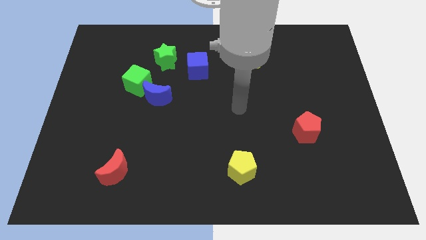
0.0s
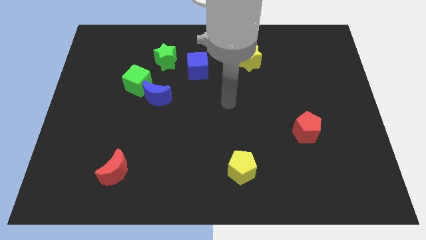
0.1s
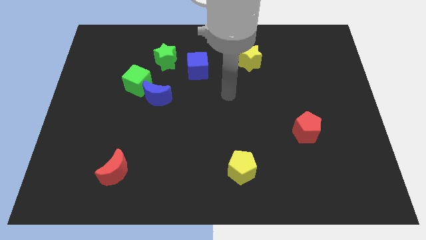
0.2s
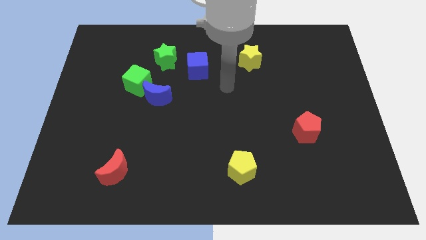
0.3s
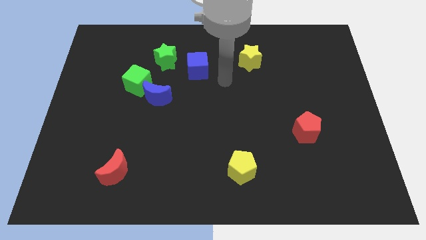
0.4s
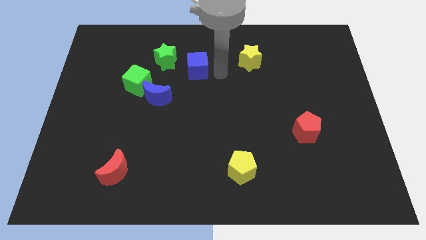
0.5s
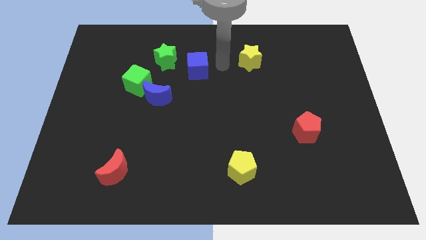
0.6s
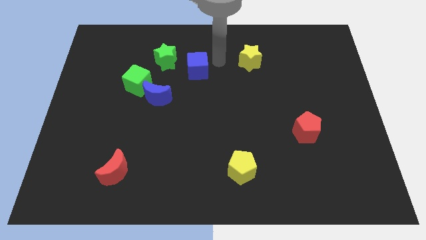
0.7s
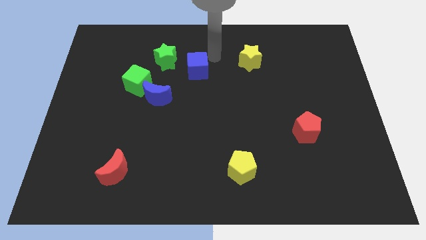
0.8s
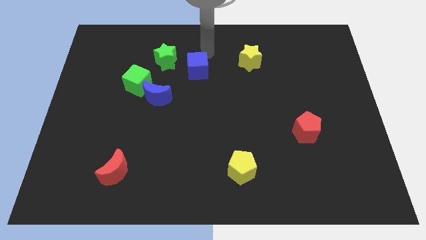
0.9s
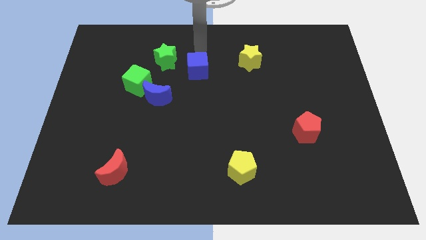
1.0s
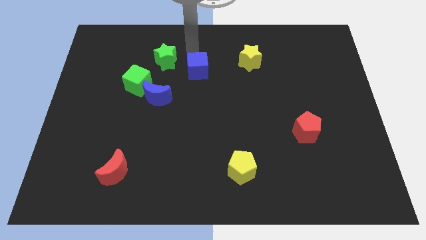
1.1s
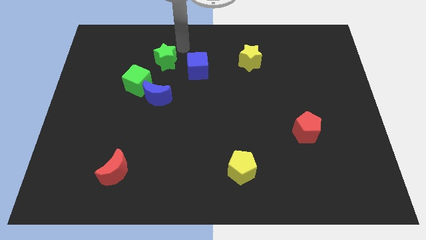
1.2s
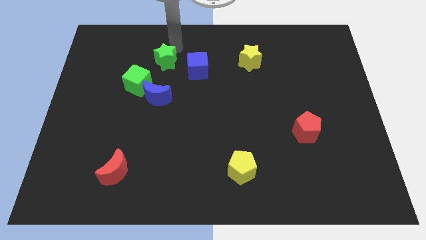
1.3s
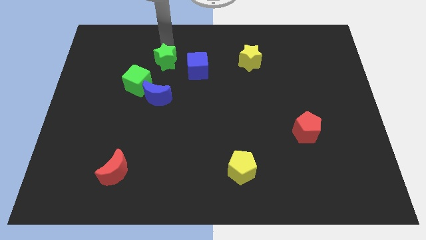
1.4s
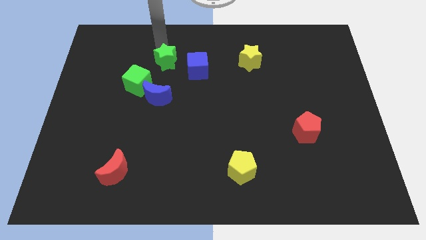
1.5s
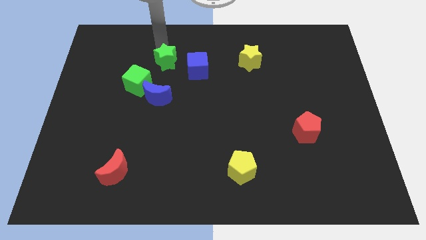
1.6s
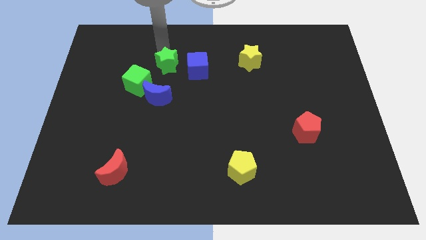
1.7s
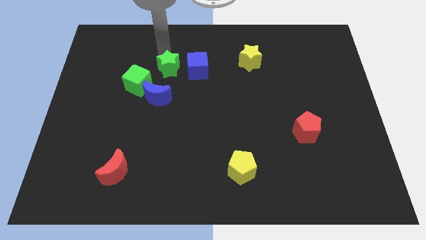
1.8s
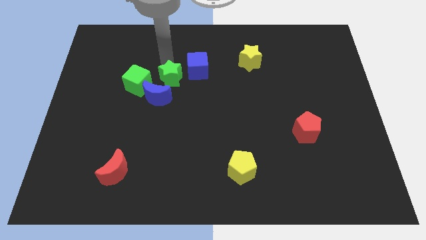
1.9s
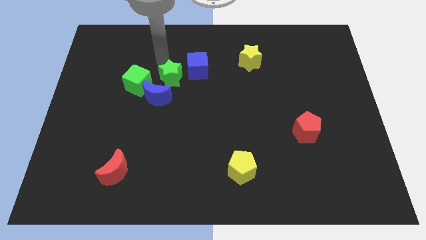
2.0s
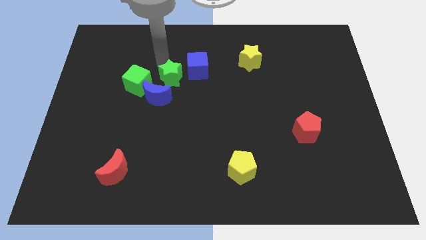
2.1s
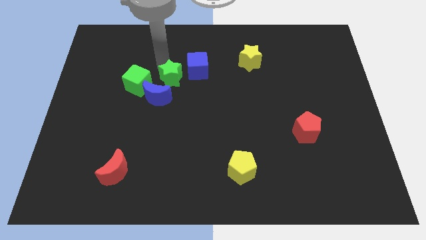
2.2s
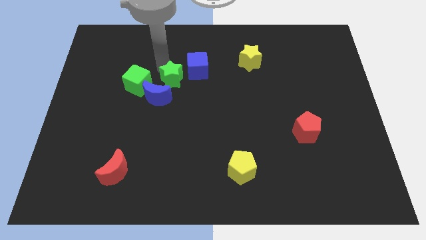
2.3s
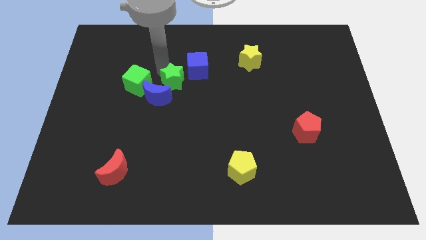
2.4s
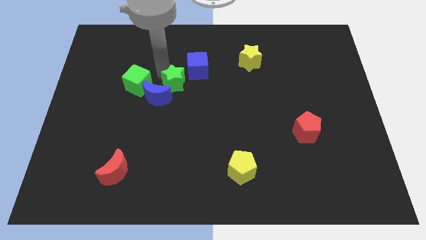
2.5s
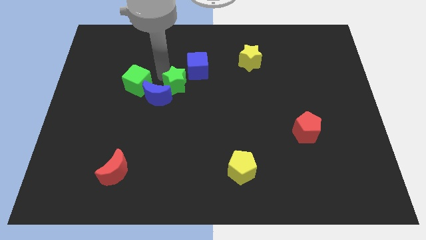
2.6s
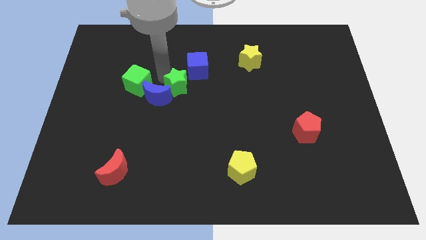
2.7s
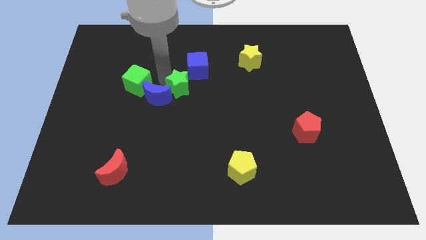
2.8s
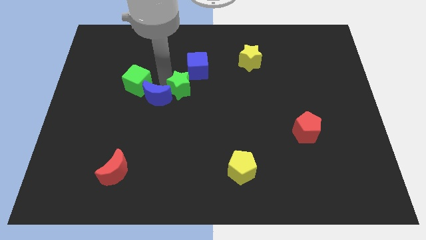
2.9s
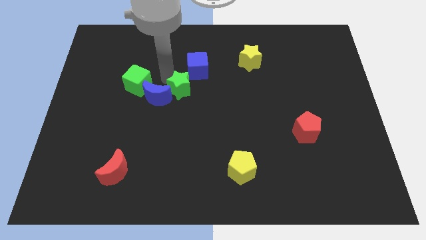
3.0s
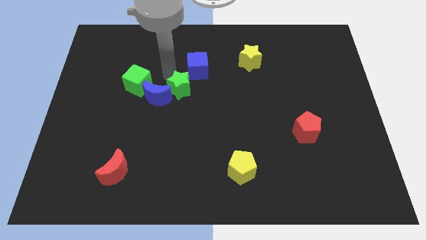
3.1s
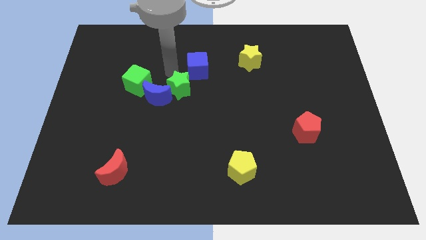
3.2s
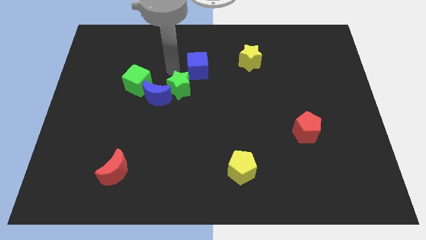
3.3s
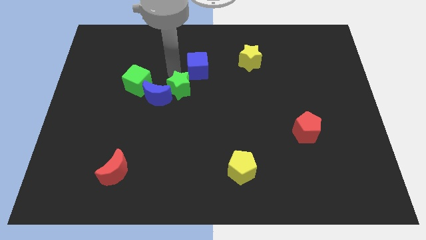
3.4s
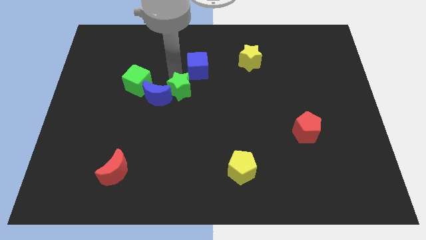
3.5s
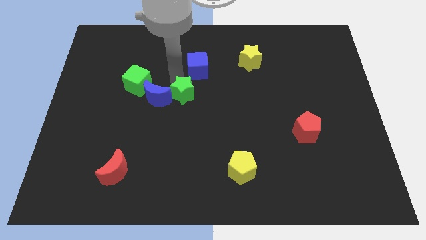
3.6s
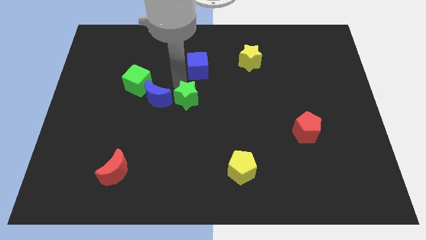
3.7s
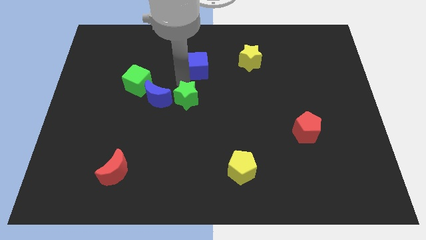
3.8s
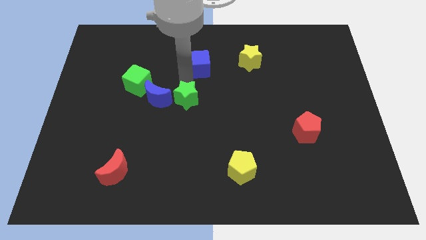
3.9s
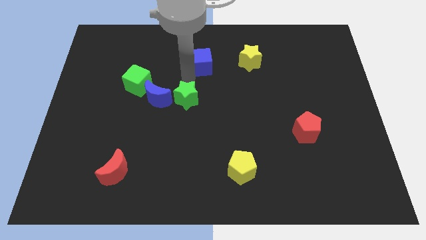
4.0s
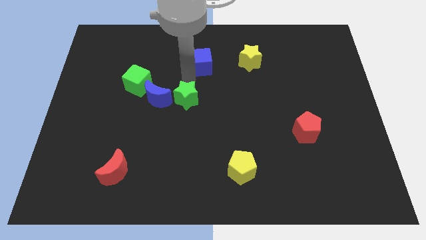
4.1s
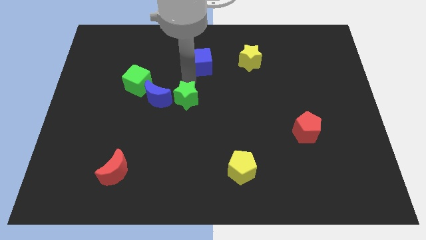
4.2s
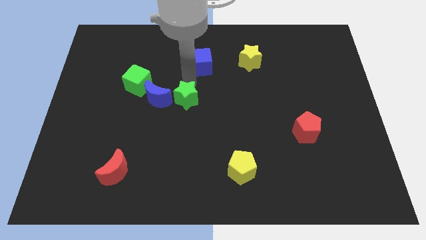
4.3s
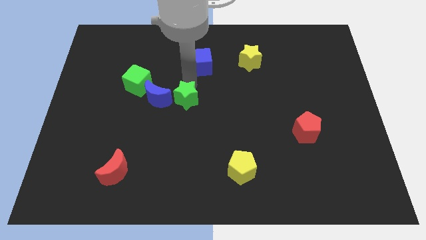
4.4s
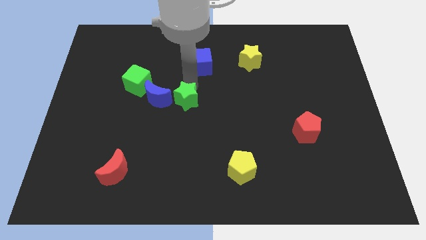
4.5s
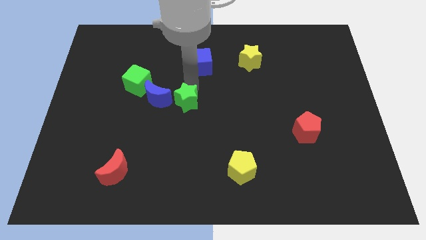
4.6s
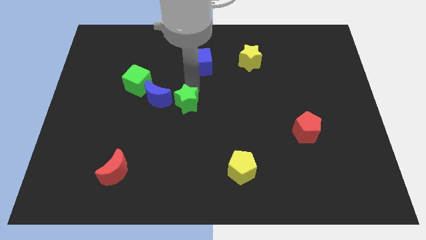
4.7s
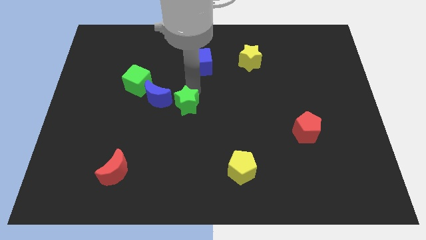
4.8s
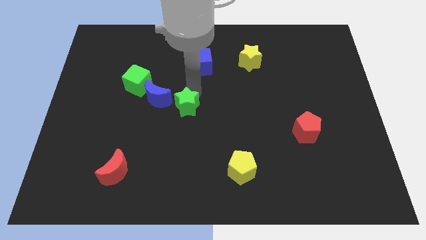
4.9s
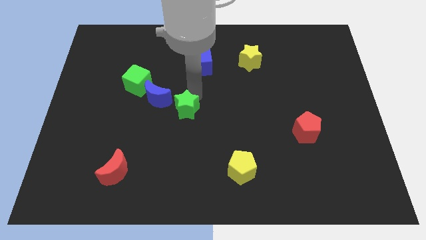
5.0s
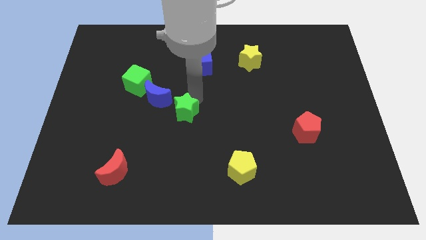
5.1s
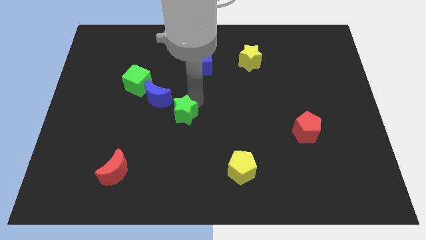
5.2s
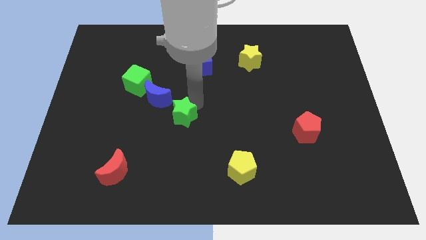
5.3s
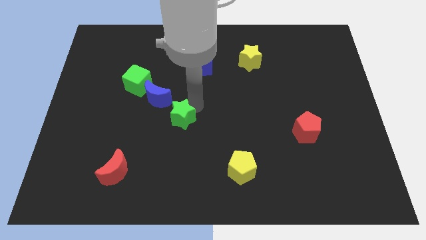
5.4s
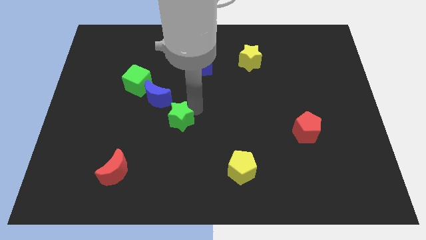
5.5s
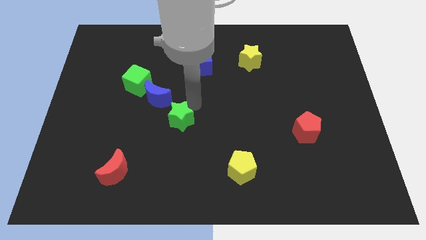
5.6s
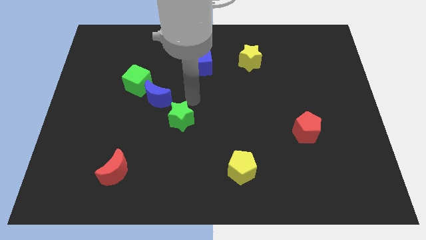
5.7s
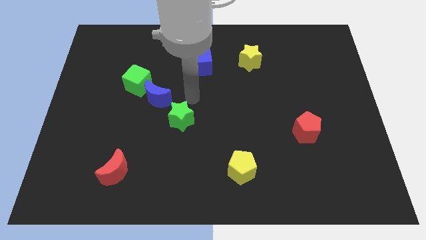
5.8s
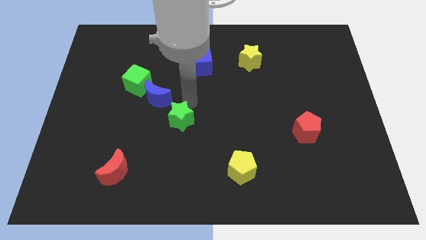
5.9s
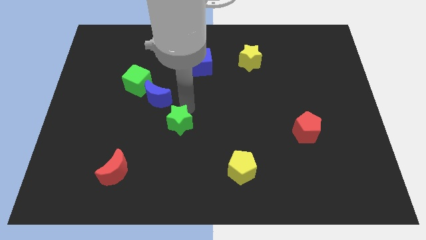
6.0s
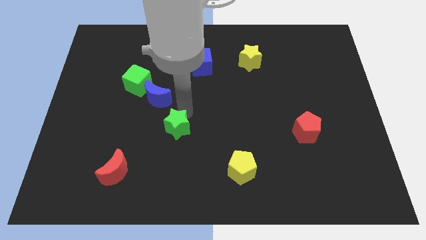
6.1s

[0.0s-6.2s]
slide the green star down

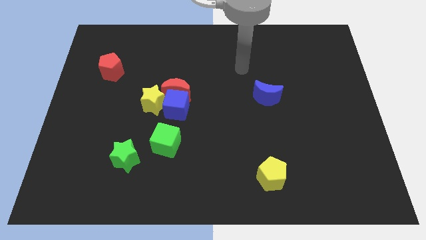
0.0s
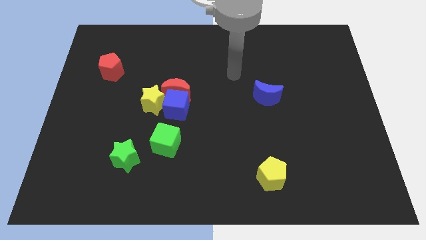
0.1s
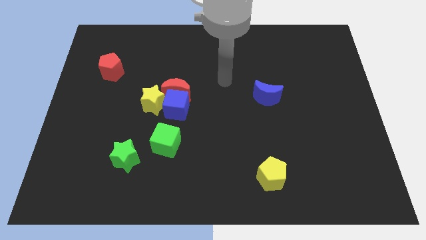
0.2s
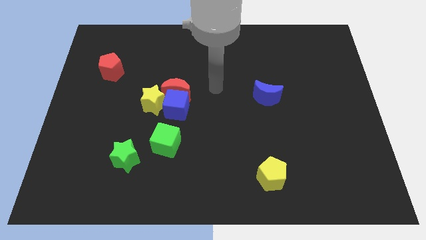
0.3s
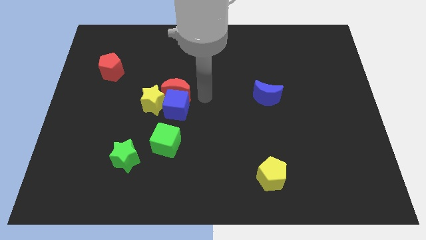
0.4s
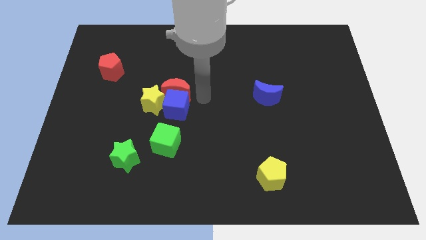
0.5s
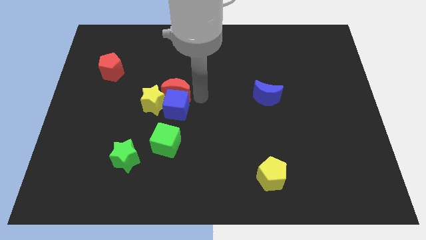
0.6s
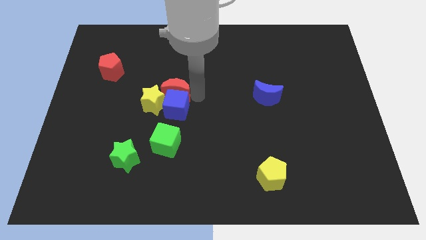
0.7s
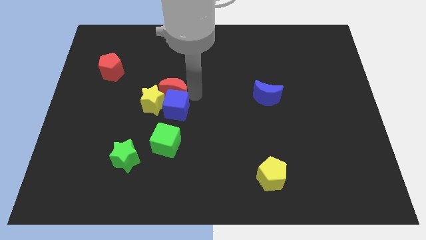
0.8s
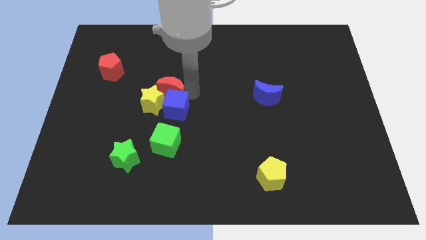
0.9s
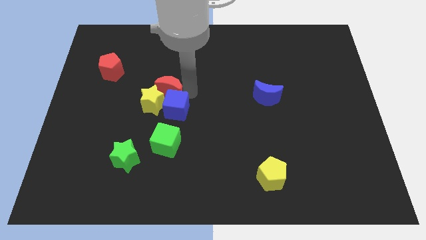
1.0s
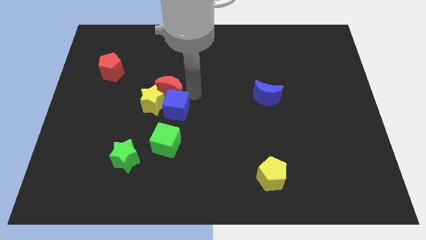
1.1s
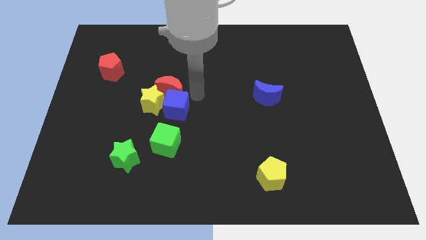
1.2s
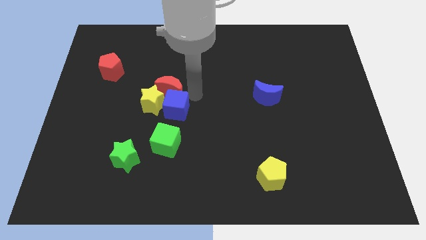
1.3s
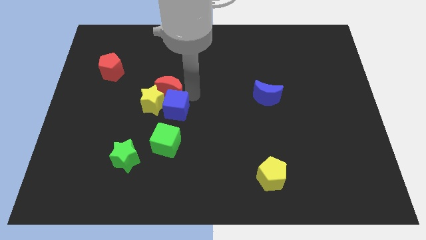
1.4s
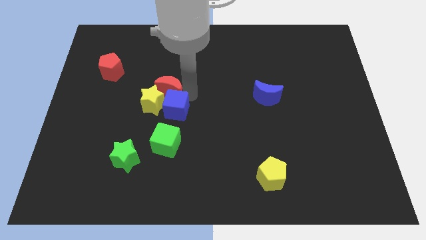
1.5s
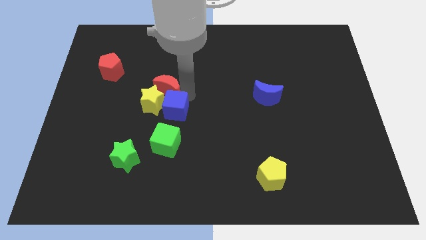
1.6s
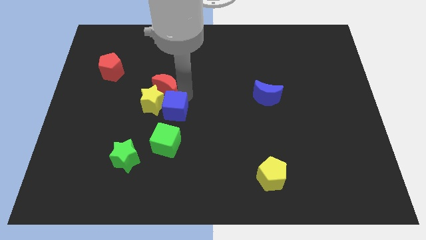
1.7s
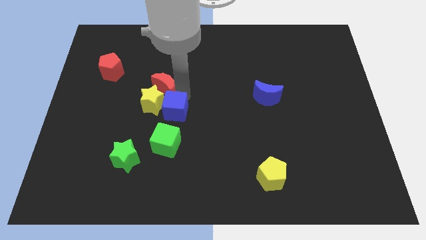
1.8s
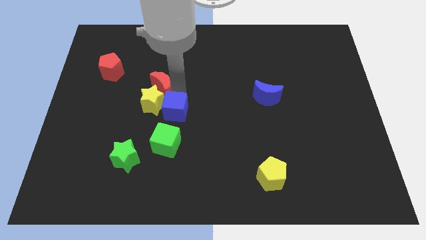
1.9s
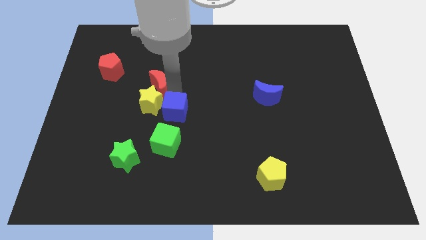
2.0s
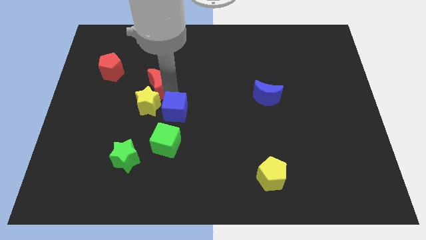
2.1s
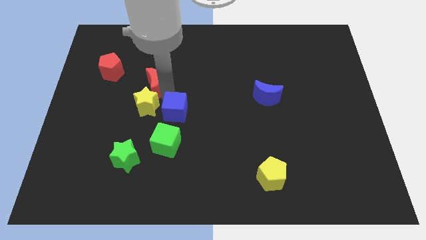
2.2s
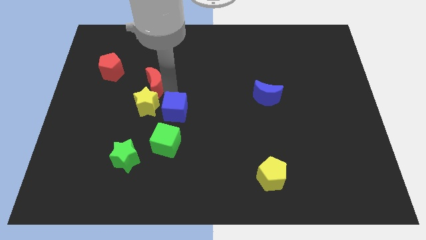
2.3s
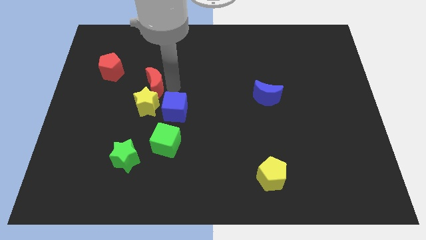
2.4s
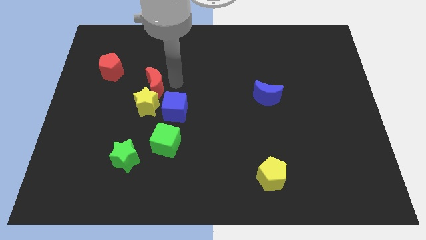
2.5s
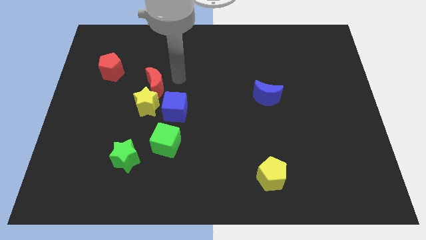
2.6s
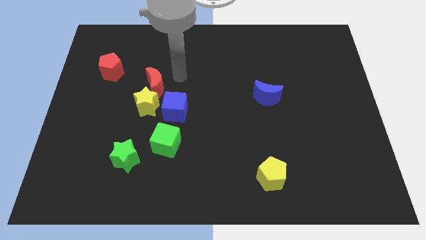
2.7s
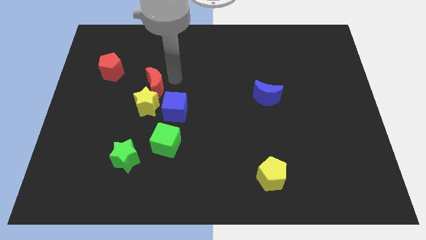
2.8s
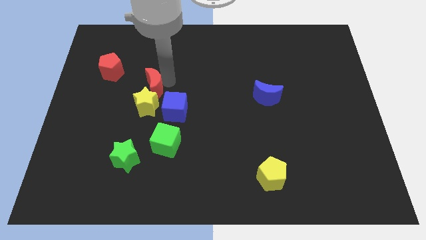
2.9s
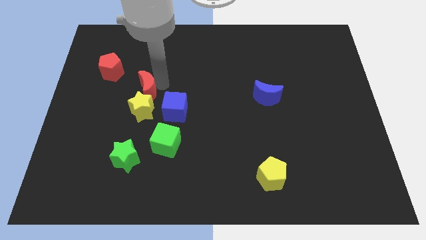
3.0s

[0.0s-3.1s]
slide the red moon somewhat left
